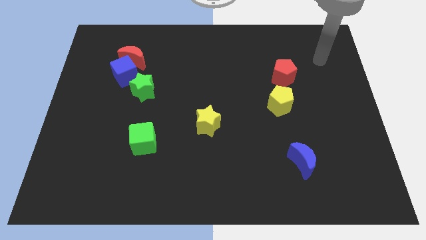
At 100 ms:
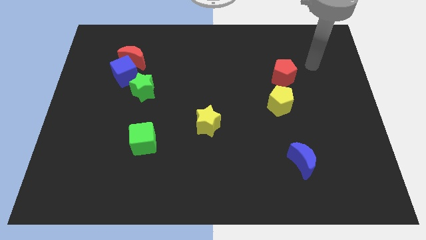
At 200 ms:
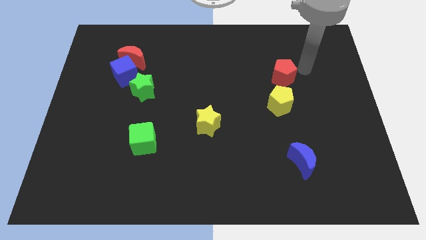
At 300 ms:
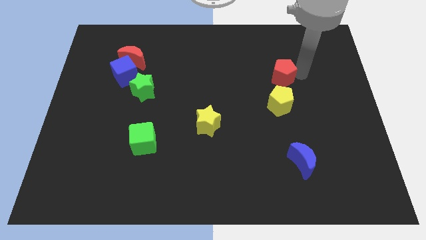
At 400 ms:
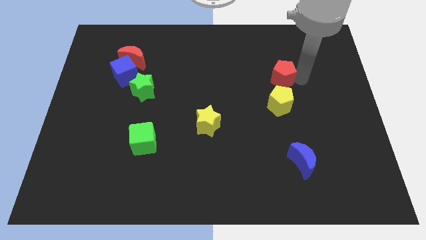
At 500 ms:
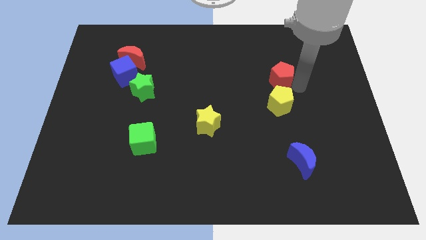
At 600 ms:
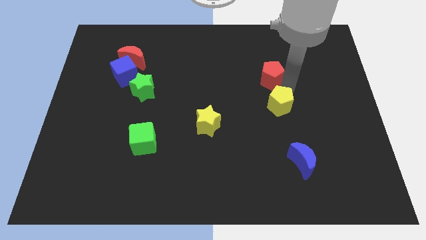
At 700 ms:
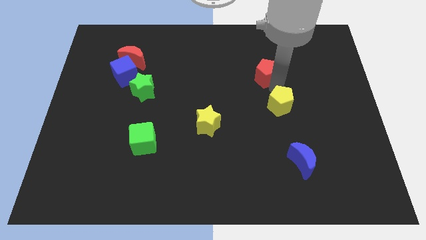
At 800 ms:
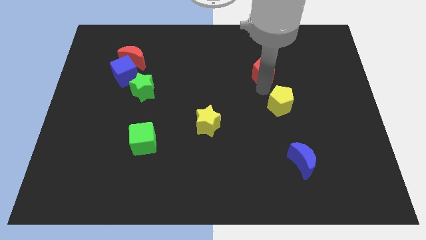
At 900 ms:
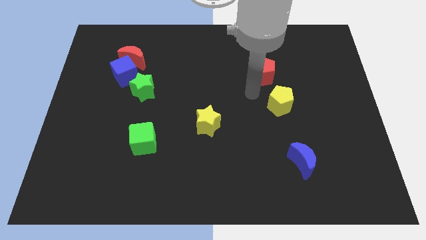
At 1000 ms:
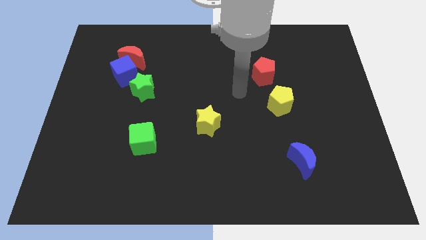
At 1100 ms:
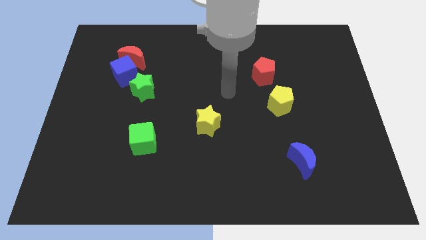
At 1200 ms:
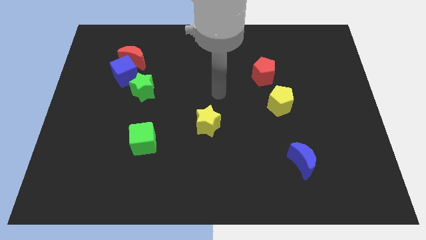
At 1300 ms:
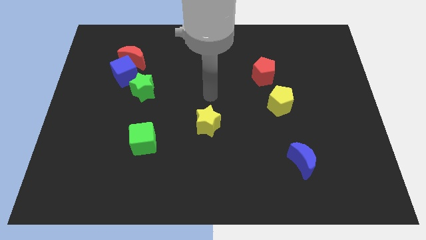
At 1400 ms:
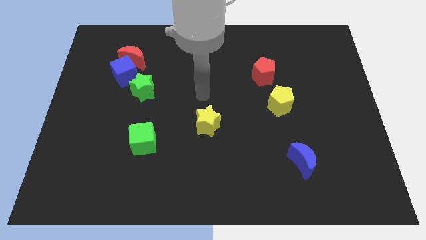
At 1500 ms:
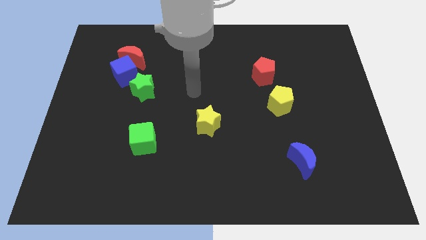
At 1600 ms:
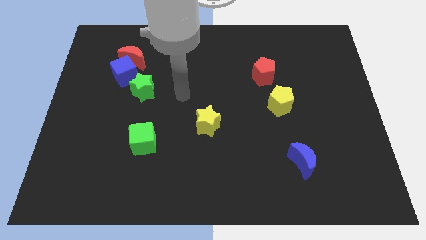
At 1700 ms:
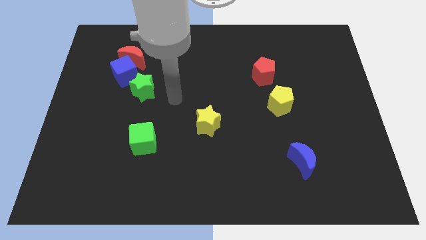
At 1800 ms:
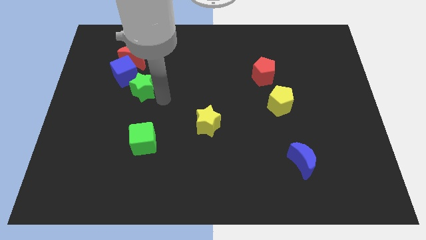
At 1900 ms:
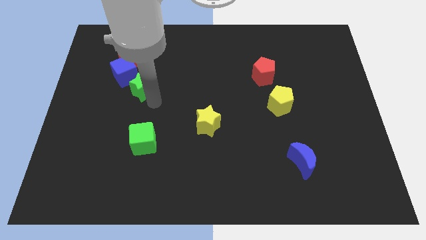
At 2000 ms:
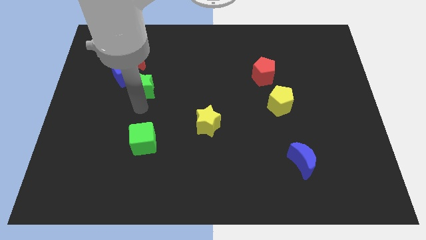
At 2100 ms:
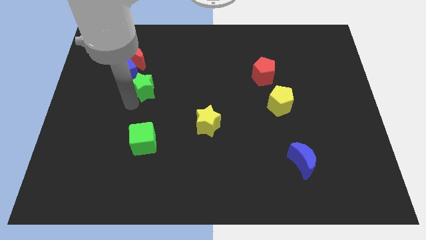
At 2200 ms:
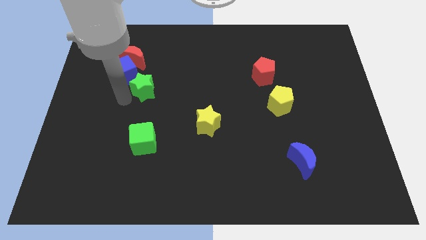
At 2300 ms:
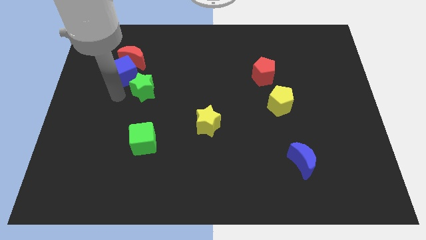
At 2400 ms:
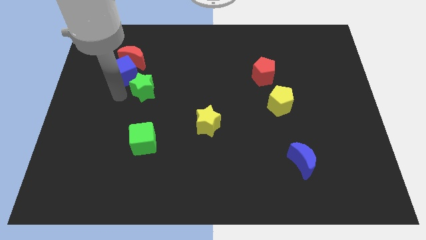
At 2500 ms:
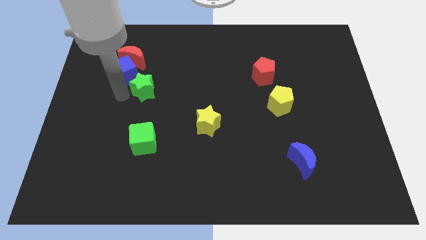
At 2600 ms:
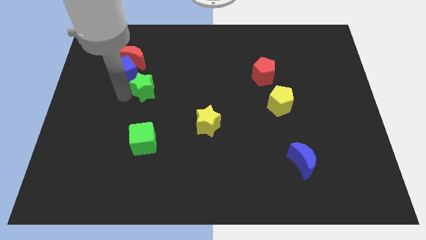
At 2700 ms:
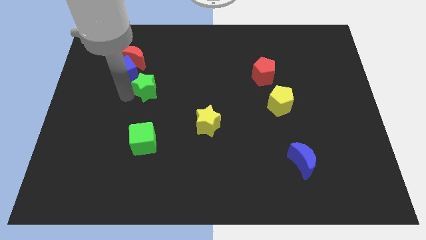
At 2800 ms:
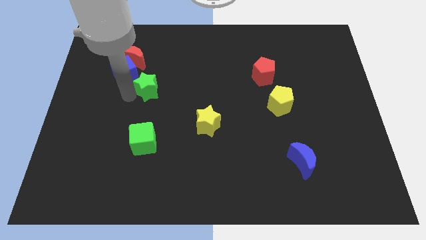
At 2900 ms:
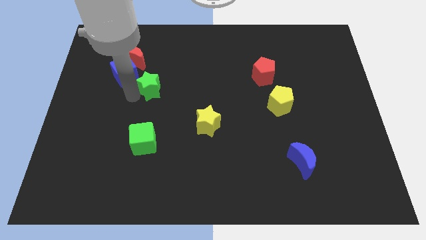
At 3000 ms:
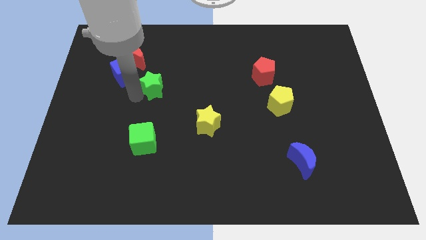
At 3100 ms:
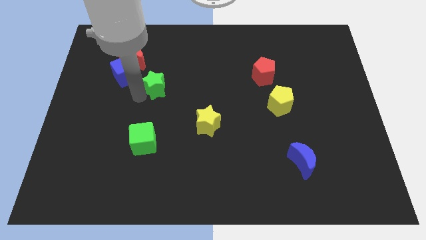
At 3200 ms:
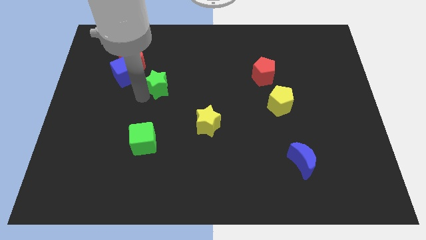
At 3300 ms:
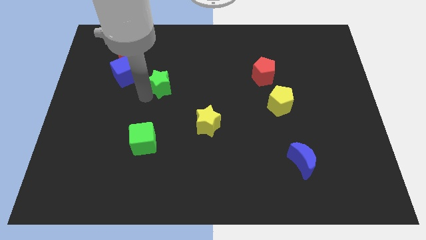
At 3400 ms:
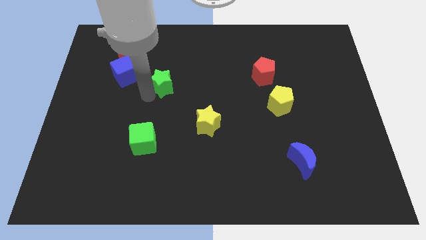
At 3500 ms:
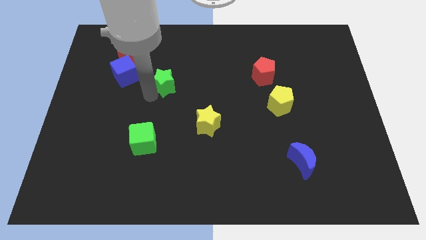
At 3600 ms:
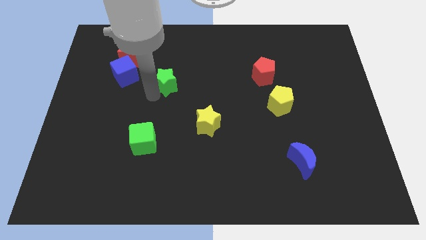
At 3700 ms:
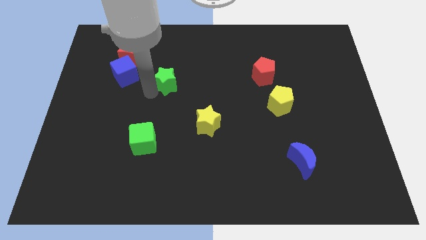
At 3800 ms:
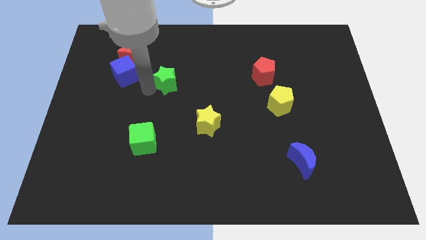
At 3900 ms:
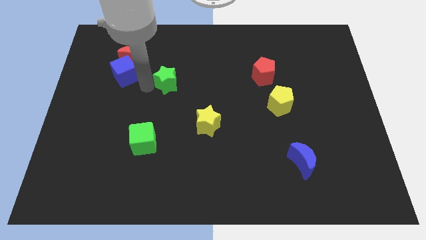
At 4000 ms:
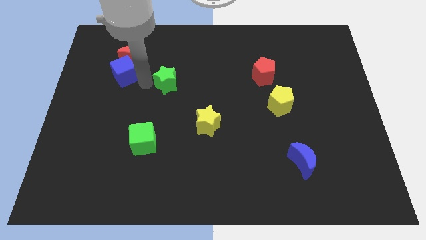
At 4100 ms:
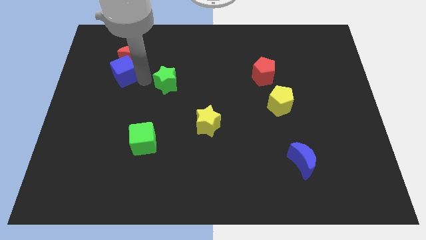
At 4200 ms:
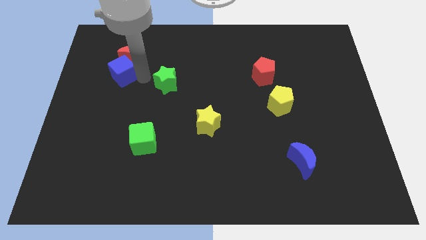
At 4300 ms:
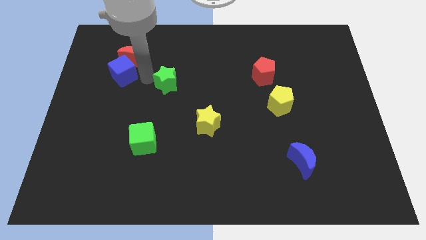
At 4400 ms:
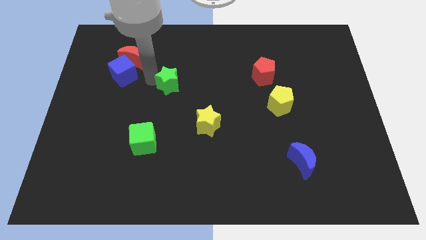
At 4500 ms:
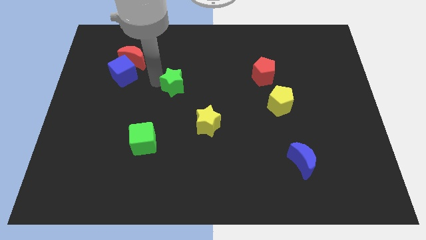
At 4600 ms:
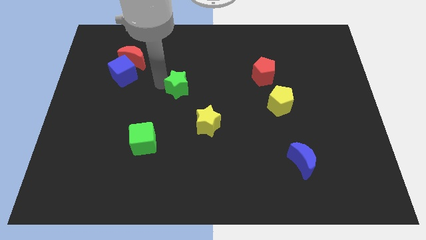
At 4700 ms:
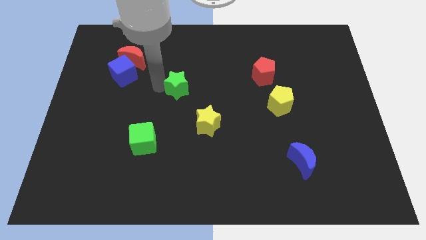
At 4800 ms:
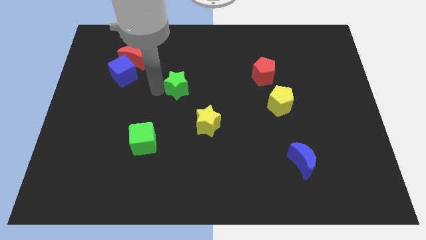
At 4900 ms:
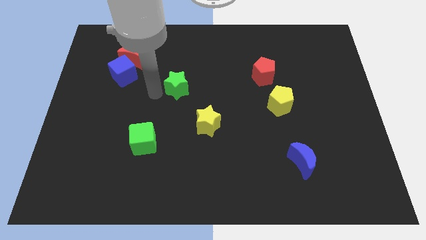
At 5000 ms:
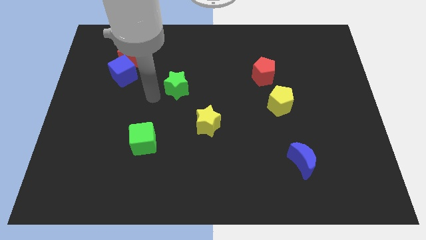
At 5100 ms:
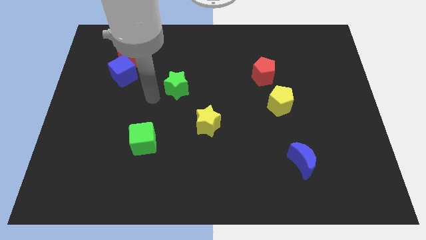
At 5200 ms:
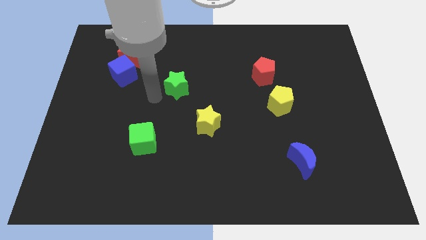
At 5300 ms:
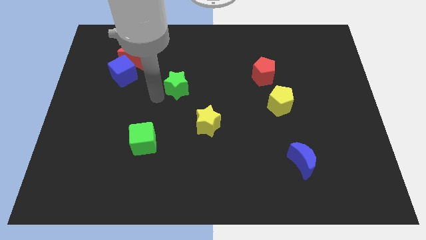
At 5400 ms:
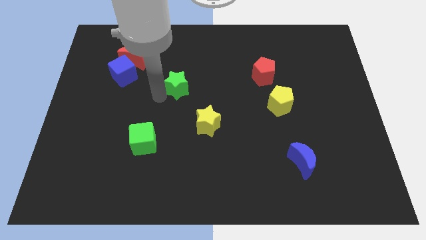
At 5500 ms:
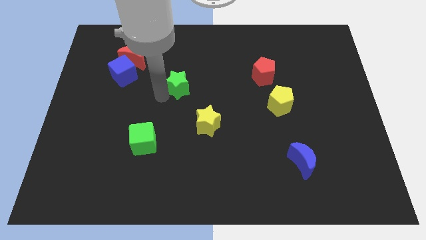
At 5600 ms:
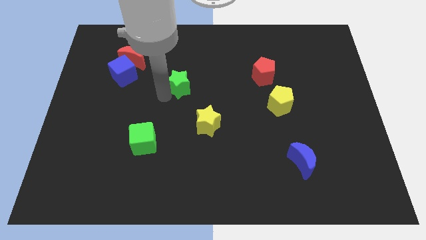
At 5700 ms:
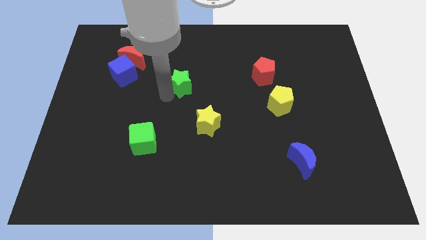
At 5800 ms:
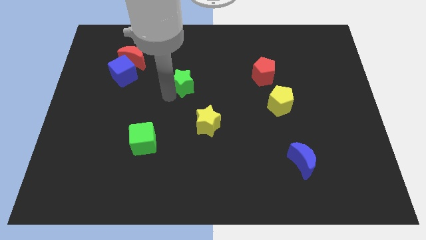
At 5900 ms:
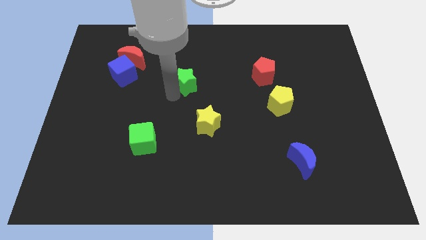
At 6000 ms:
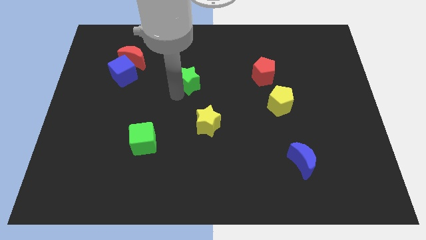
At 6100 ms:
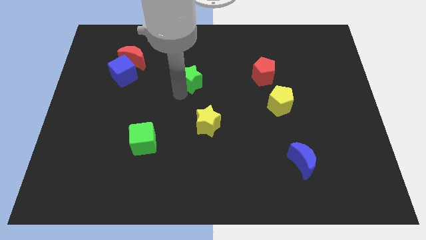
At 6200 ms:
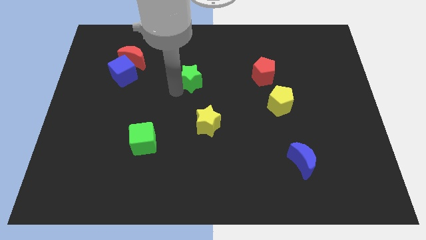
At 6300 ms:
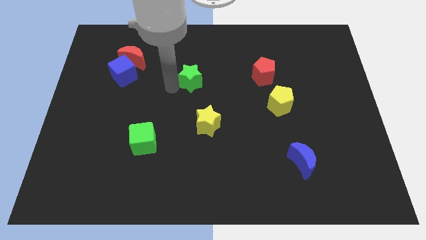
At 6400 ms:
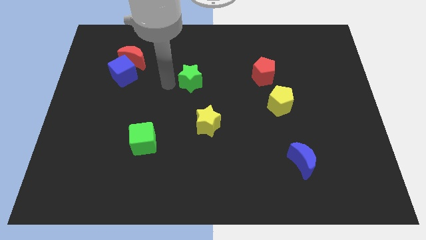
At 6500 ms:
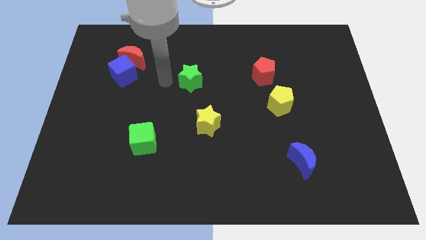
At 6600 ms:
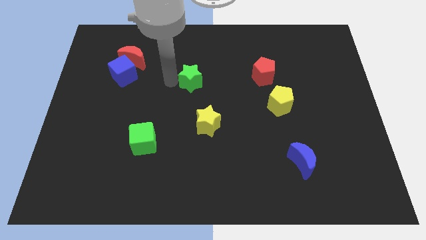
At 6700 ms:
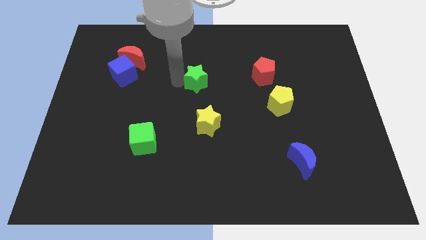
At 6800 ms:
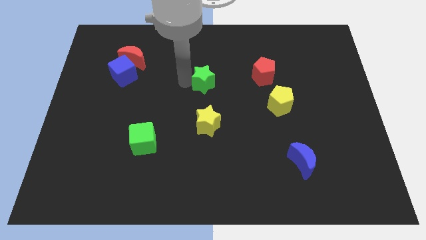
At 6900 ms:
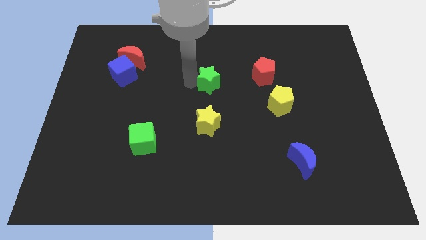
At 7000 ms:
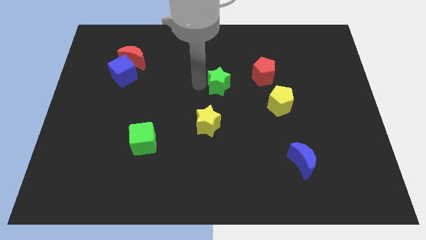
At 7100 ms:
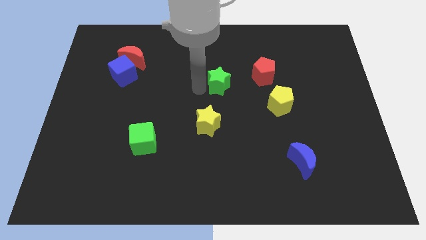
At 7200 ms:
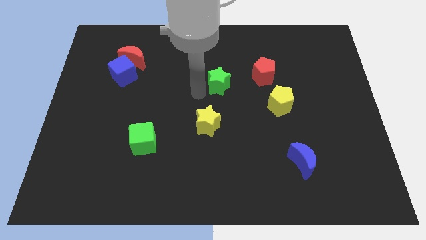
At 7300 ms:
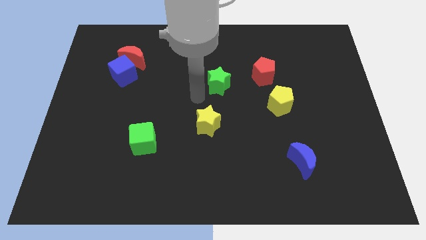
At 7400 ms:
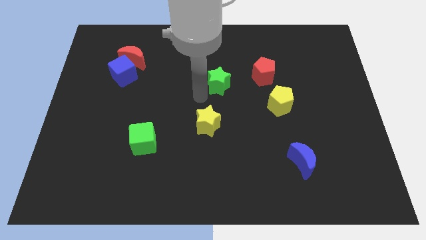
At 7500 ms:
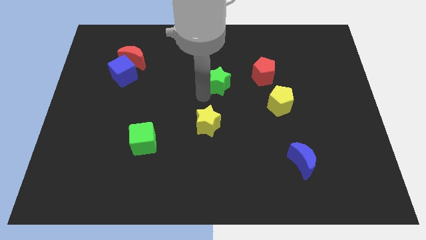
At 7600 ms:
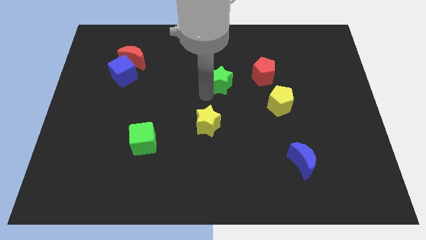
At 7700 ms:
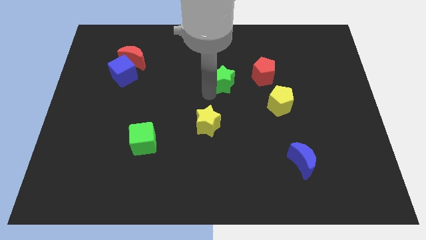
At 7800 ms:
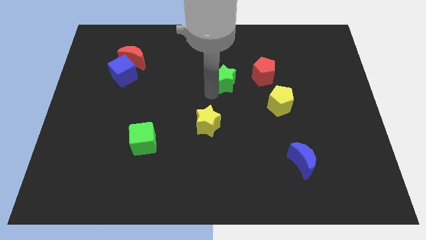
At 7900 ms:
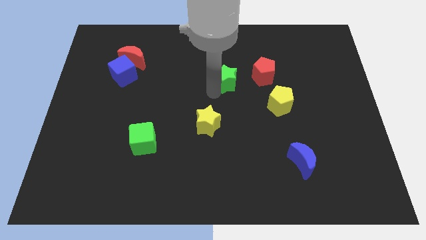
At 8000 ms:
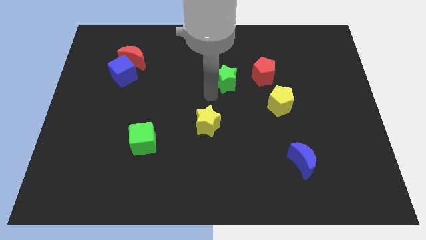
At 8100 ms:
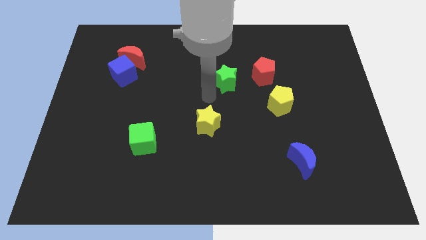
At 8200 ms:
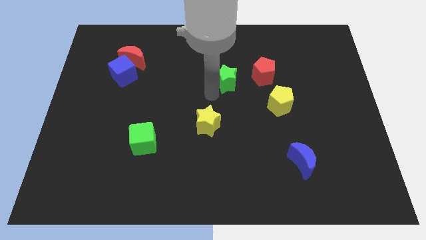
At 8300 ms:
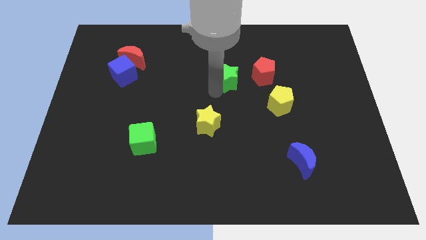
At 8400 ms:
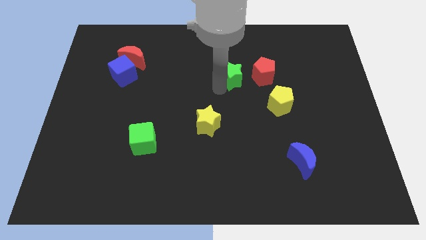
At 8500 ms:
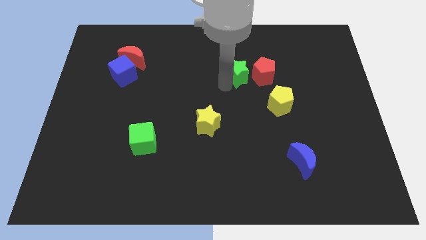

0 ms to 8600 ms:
slide the green star to the top left of the red pentagon
